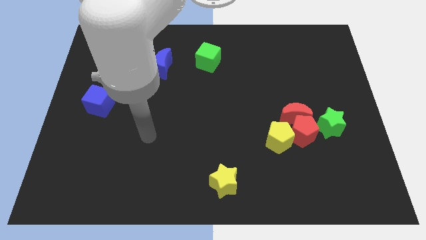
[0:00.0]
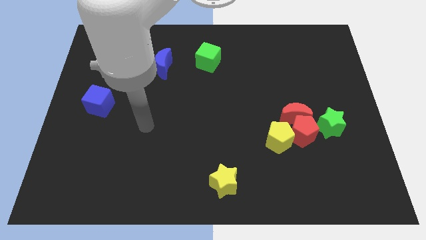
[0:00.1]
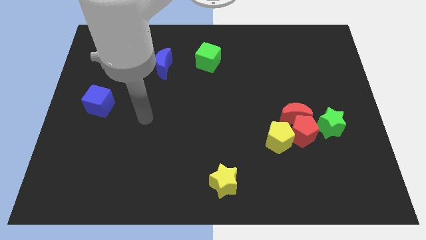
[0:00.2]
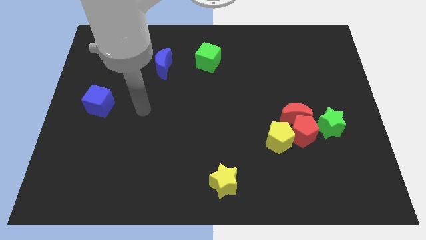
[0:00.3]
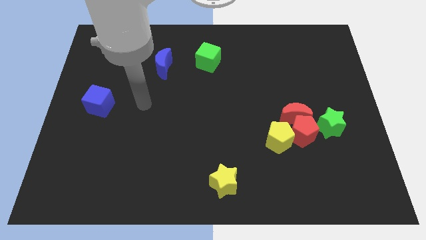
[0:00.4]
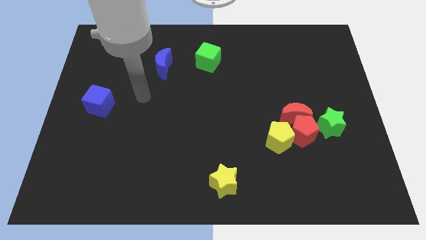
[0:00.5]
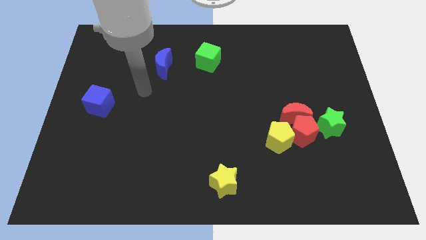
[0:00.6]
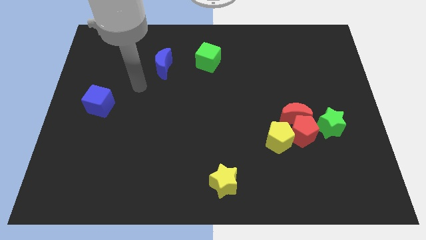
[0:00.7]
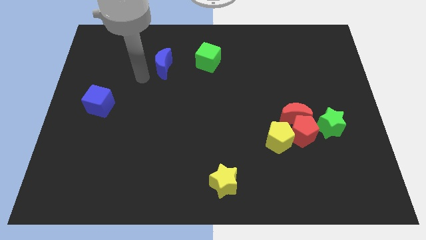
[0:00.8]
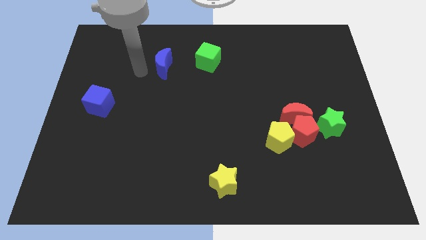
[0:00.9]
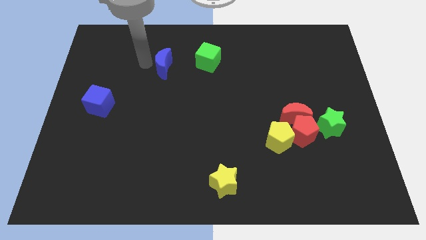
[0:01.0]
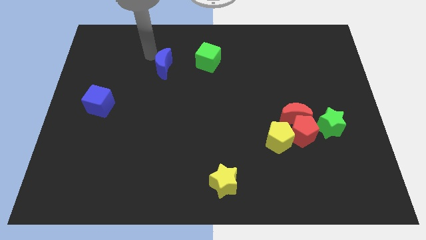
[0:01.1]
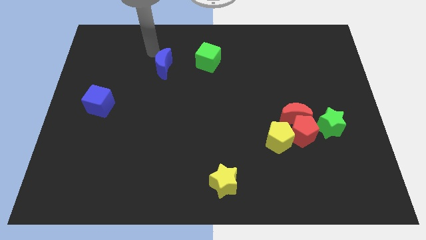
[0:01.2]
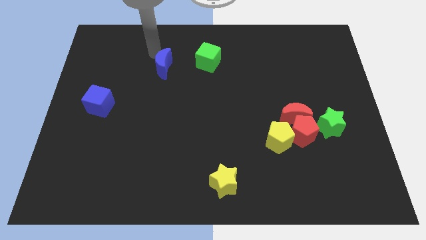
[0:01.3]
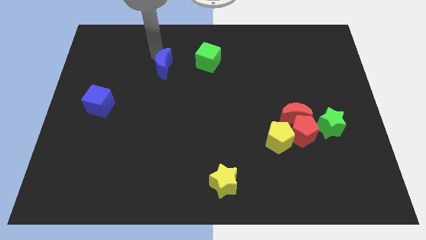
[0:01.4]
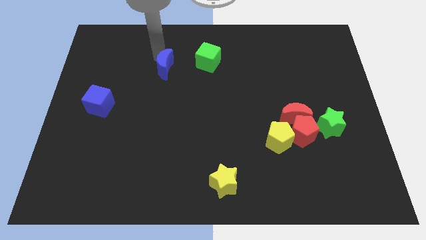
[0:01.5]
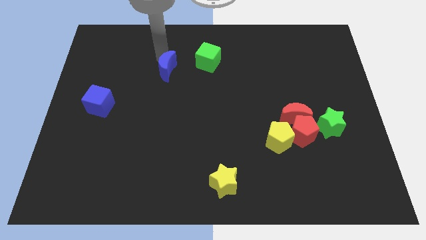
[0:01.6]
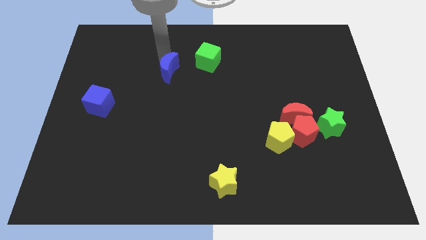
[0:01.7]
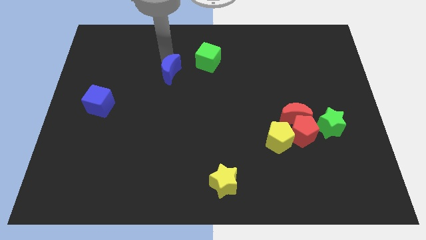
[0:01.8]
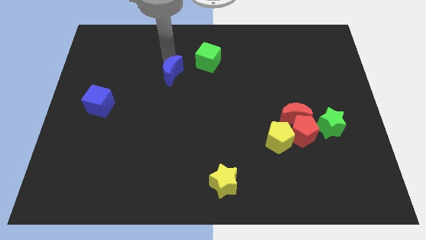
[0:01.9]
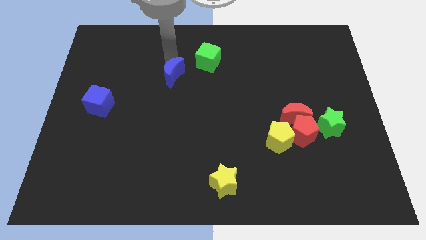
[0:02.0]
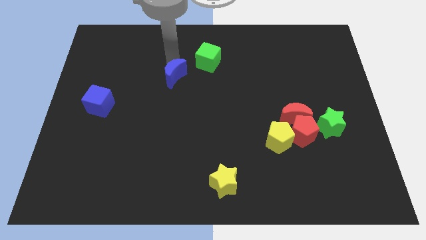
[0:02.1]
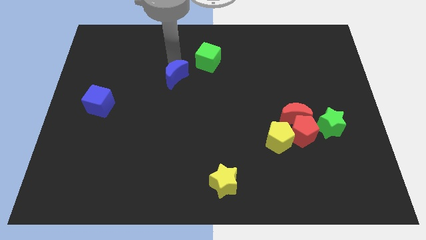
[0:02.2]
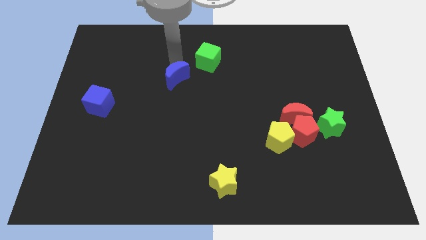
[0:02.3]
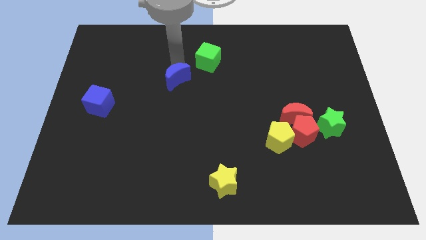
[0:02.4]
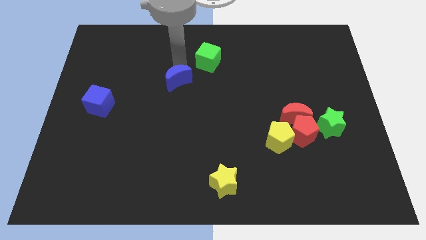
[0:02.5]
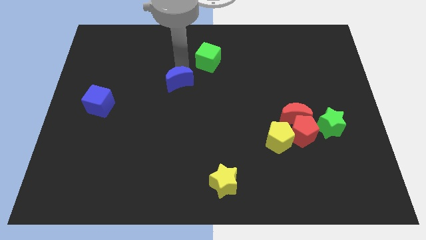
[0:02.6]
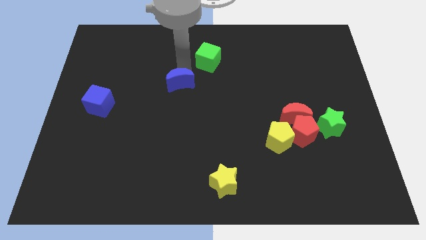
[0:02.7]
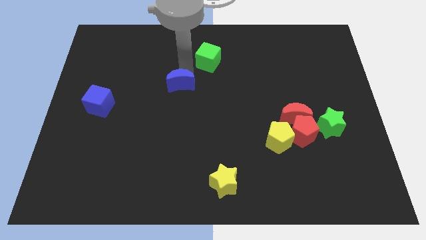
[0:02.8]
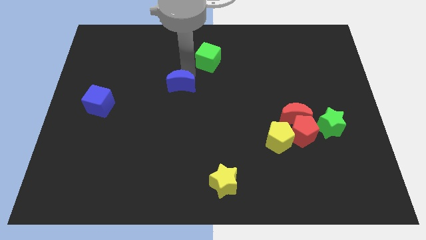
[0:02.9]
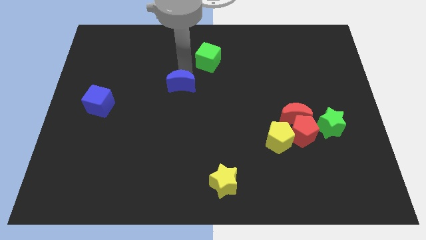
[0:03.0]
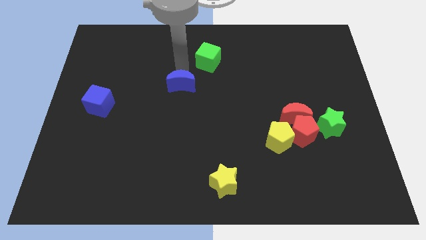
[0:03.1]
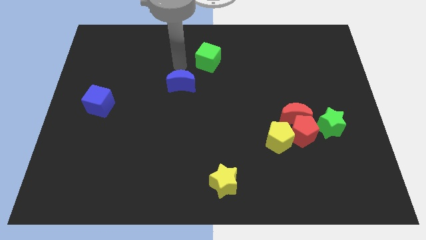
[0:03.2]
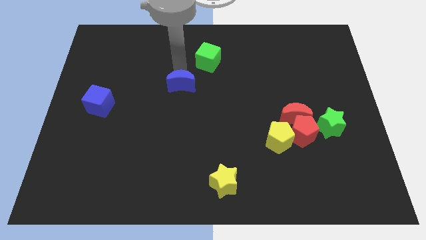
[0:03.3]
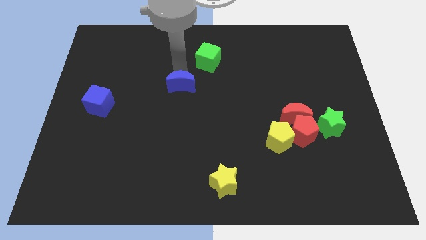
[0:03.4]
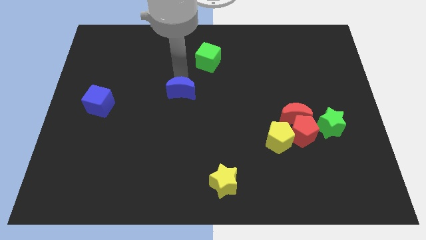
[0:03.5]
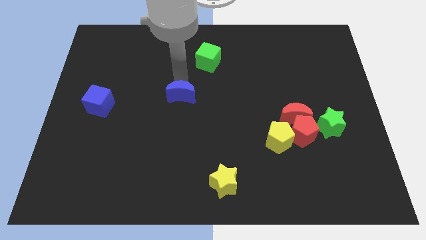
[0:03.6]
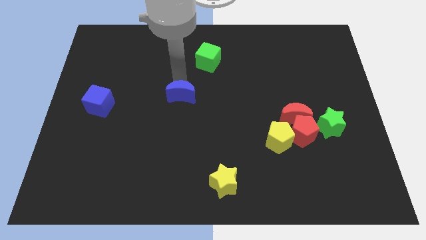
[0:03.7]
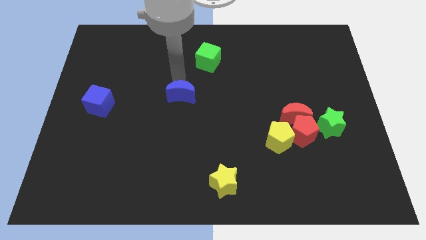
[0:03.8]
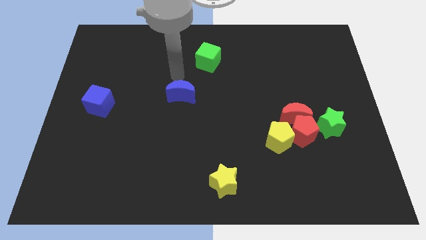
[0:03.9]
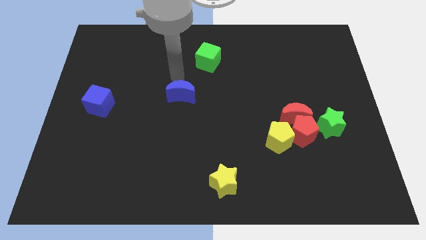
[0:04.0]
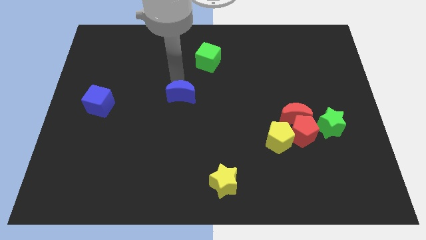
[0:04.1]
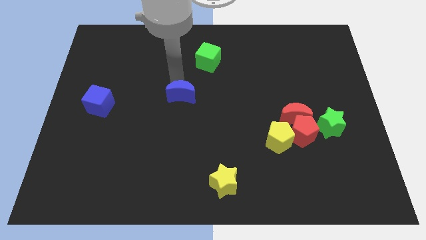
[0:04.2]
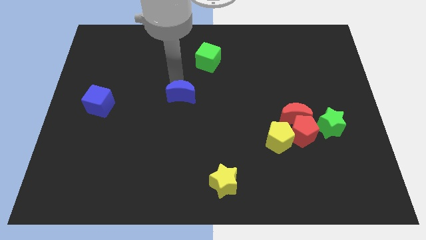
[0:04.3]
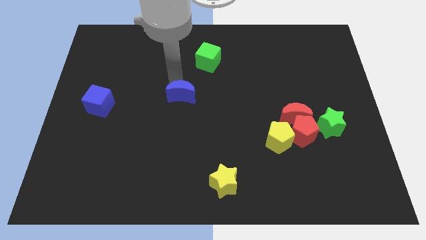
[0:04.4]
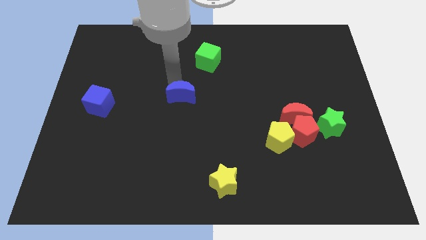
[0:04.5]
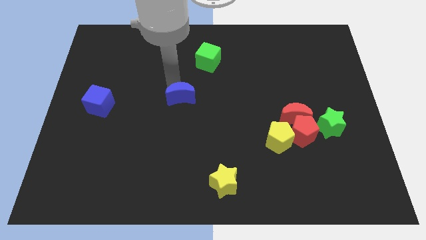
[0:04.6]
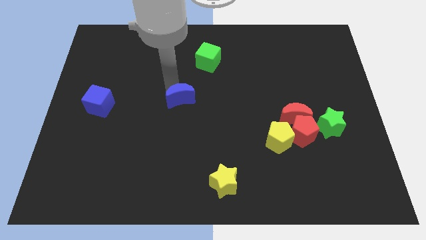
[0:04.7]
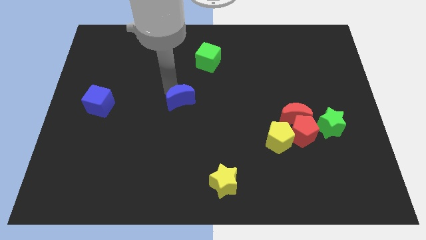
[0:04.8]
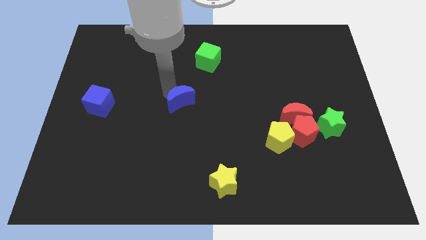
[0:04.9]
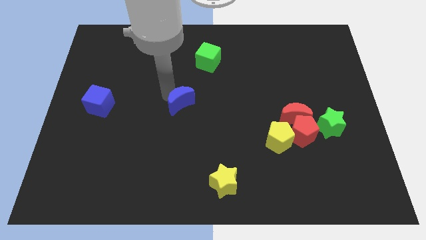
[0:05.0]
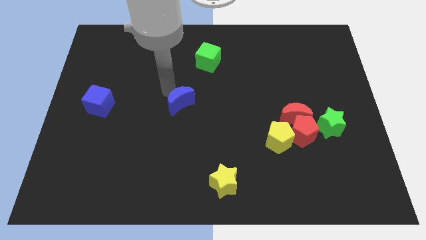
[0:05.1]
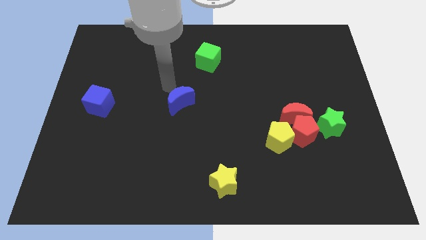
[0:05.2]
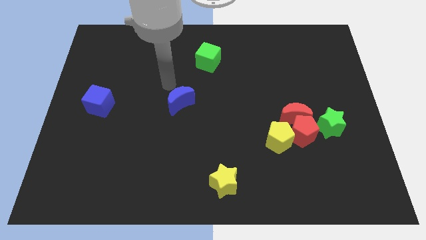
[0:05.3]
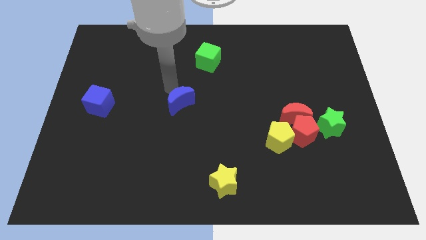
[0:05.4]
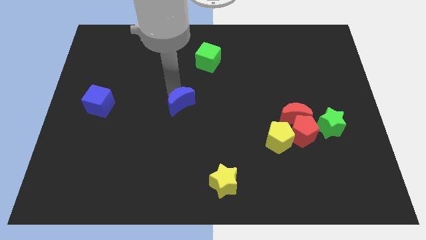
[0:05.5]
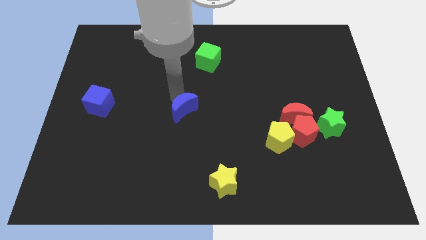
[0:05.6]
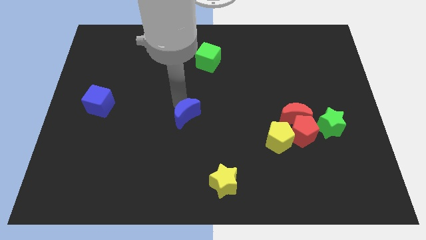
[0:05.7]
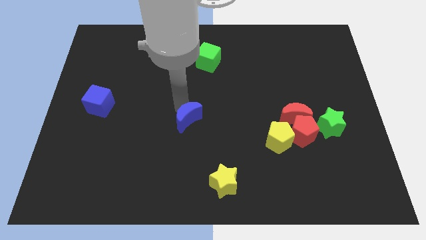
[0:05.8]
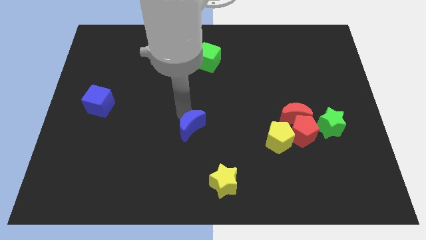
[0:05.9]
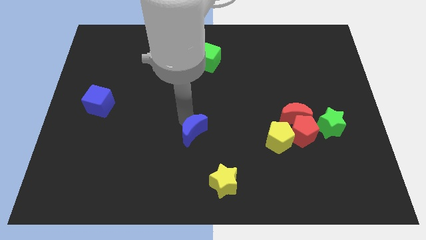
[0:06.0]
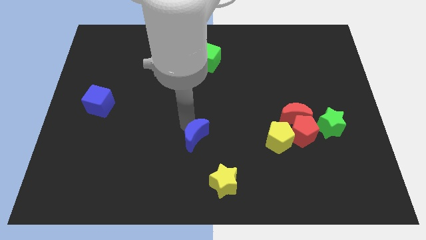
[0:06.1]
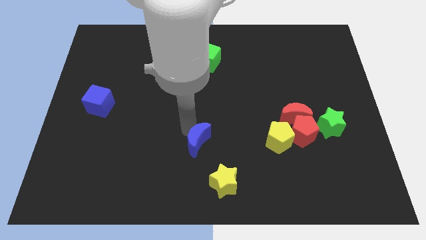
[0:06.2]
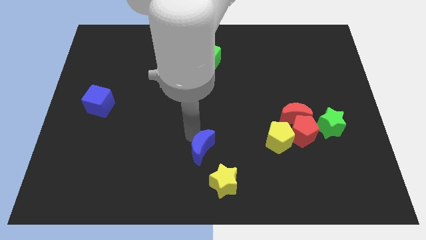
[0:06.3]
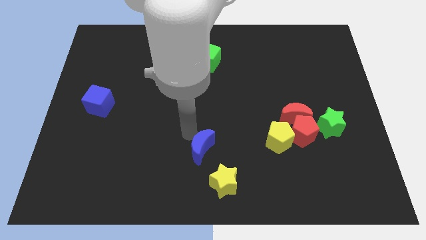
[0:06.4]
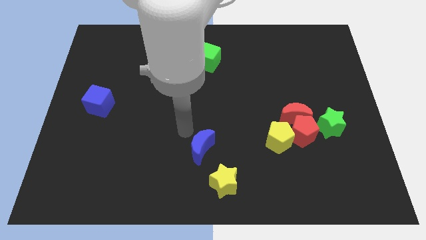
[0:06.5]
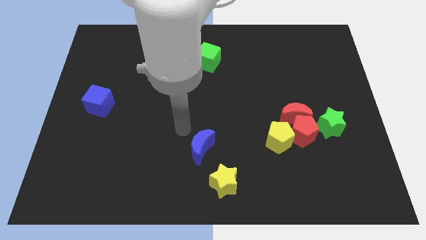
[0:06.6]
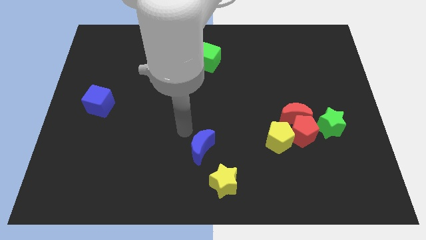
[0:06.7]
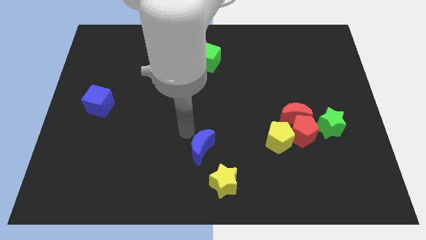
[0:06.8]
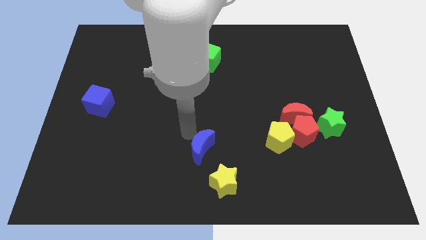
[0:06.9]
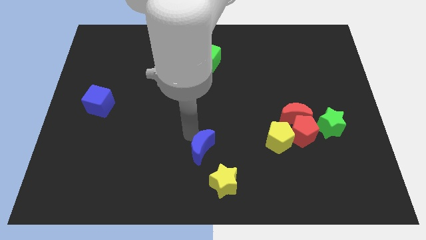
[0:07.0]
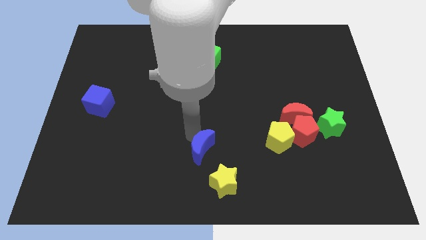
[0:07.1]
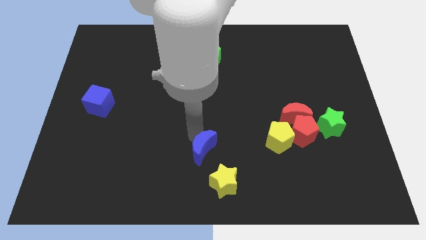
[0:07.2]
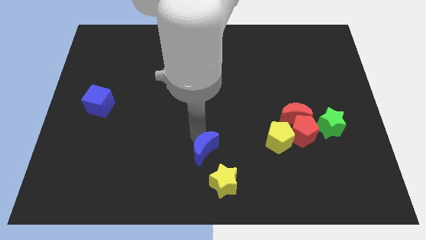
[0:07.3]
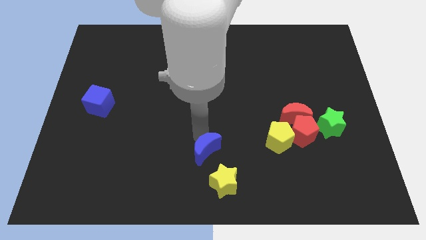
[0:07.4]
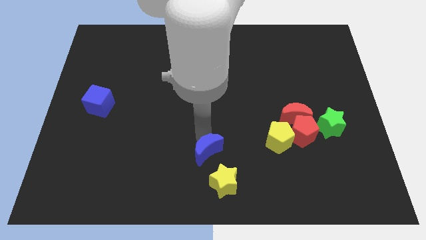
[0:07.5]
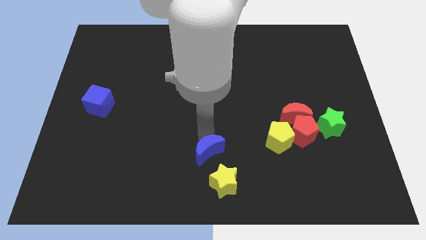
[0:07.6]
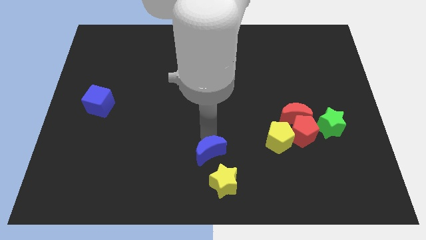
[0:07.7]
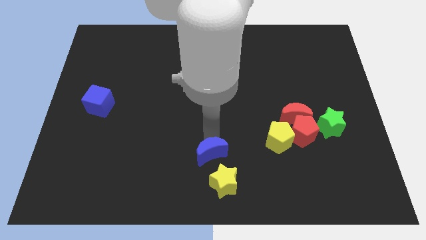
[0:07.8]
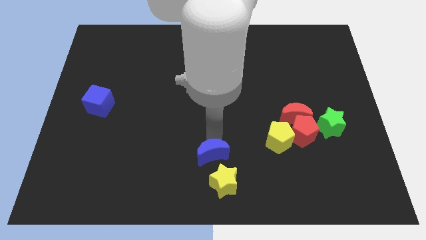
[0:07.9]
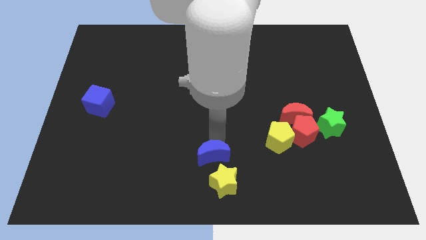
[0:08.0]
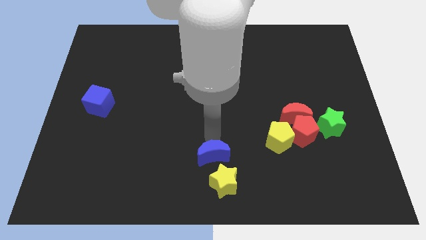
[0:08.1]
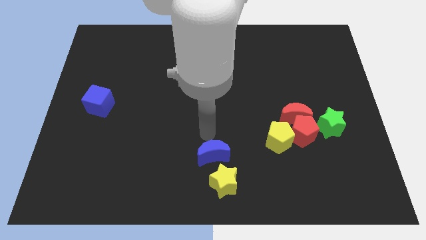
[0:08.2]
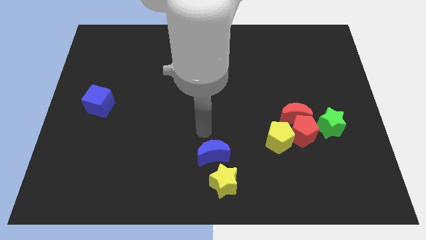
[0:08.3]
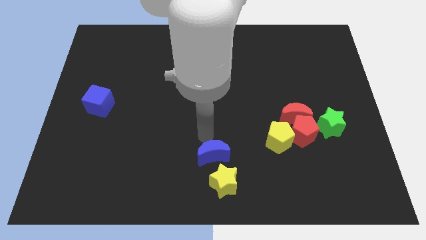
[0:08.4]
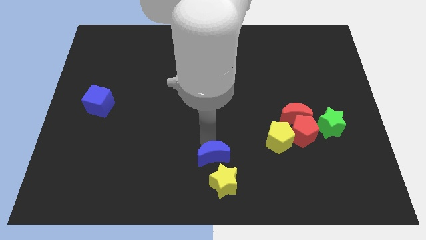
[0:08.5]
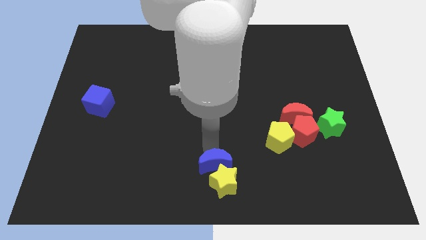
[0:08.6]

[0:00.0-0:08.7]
put the blue moon next to the yellow star
